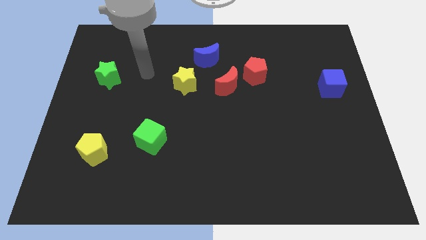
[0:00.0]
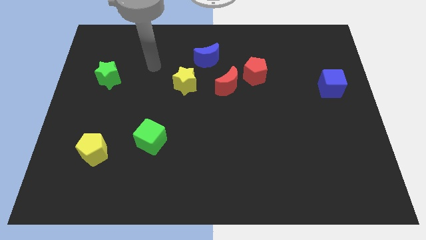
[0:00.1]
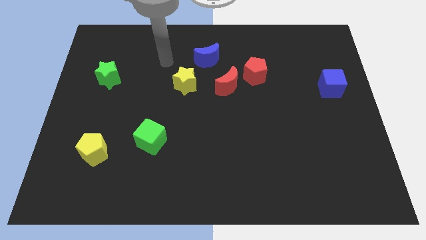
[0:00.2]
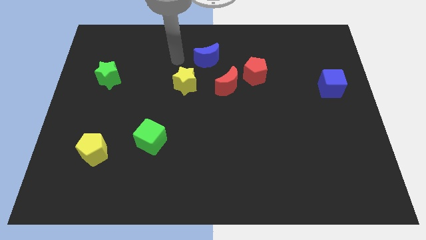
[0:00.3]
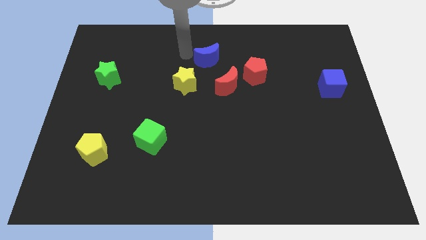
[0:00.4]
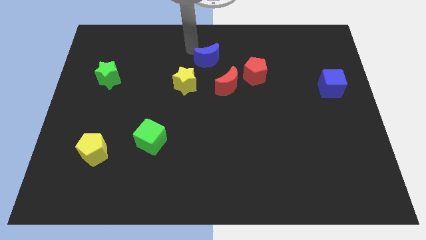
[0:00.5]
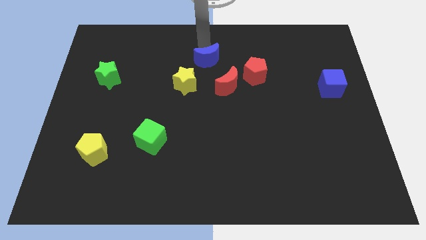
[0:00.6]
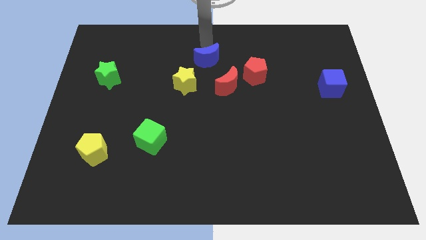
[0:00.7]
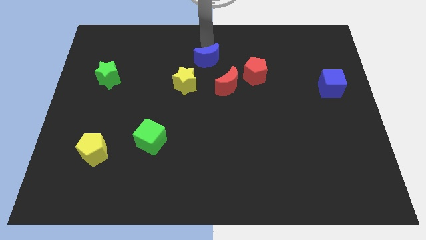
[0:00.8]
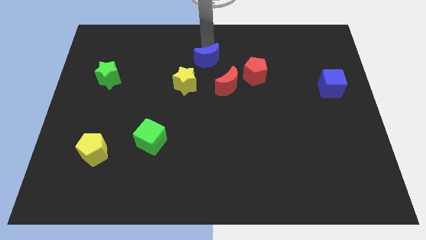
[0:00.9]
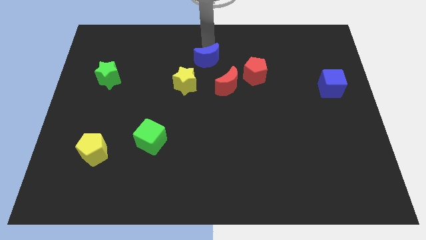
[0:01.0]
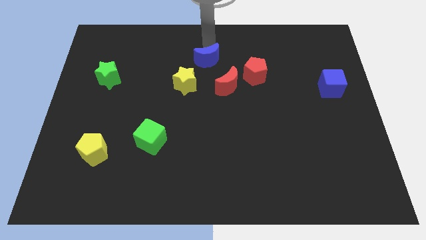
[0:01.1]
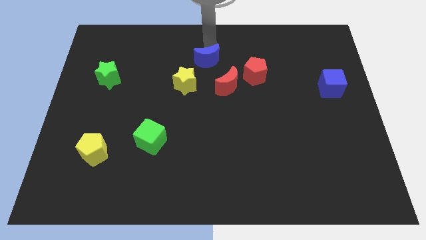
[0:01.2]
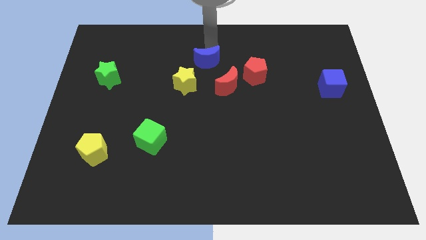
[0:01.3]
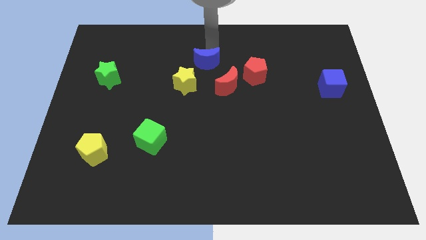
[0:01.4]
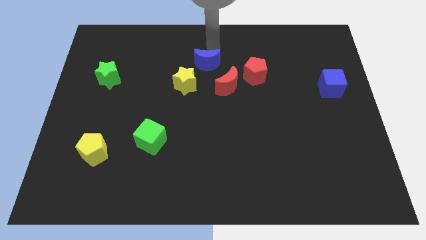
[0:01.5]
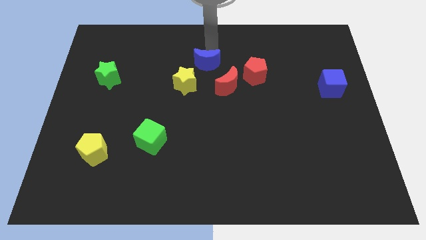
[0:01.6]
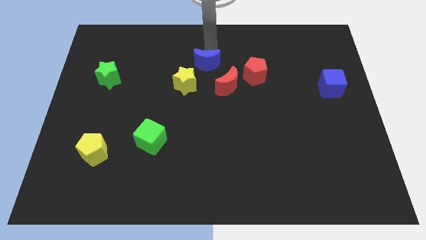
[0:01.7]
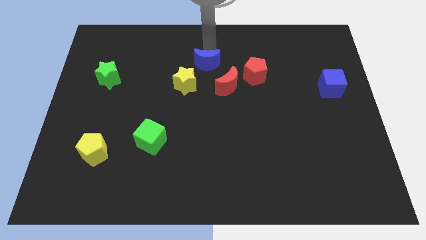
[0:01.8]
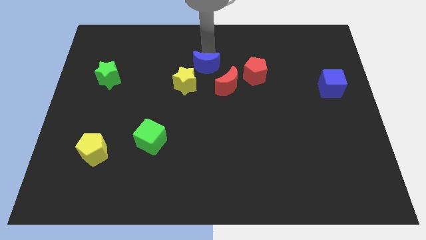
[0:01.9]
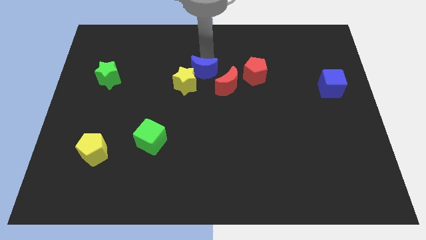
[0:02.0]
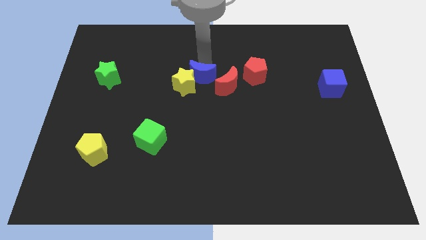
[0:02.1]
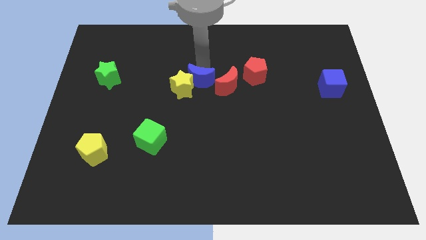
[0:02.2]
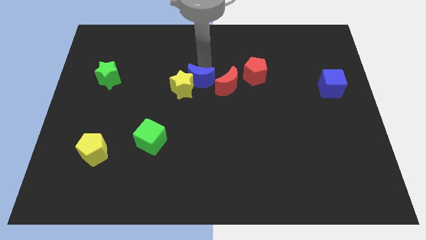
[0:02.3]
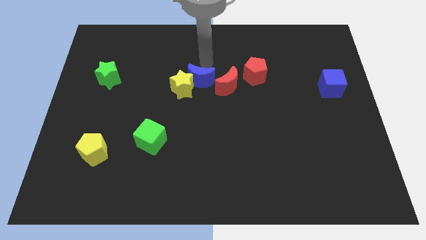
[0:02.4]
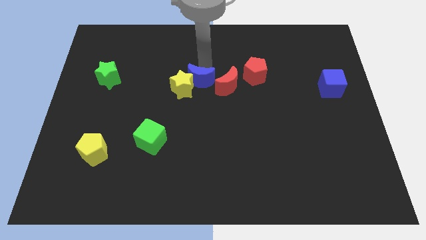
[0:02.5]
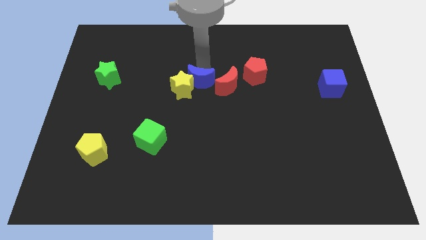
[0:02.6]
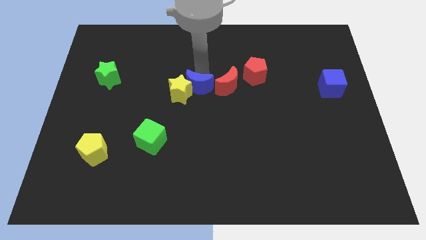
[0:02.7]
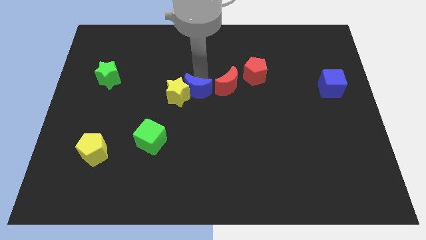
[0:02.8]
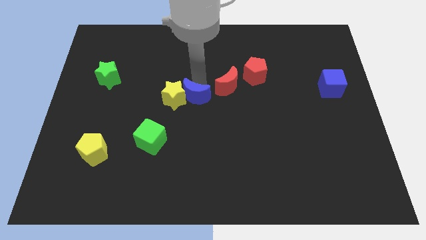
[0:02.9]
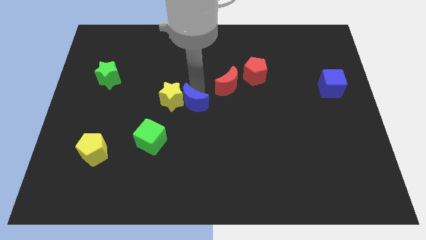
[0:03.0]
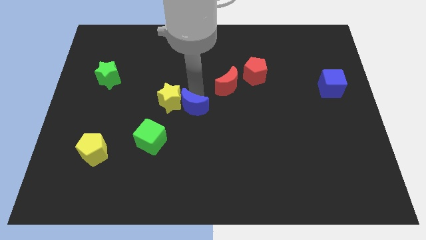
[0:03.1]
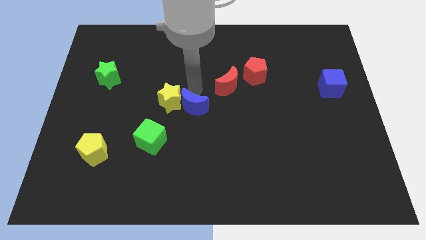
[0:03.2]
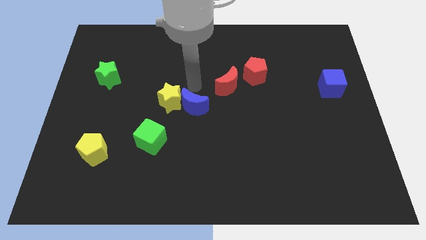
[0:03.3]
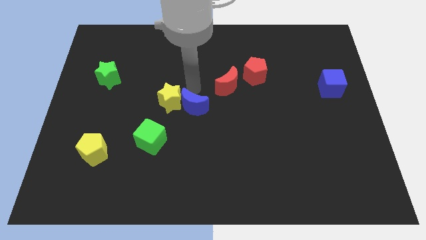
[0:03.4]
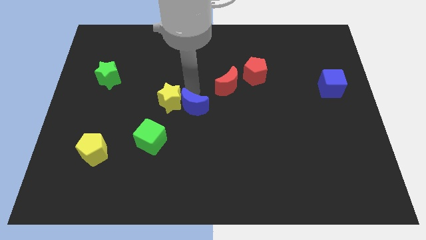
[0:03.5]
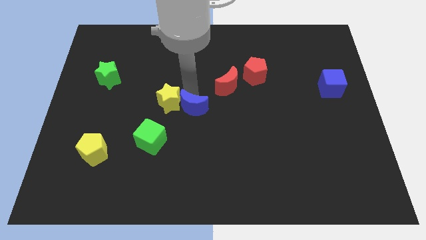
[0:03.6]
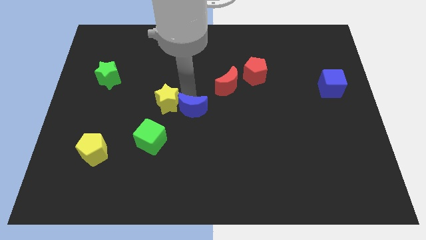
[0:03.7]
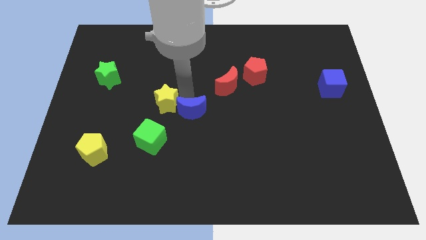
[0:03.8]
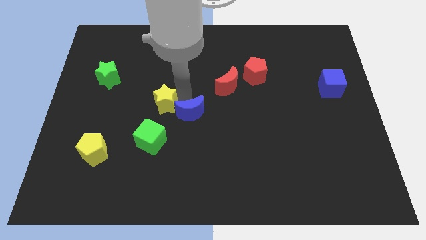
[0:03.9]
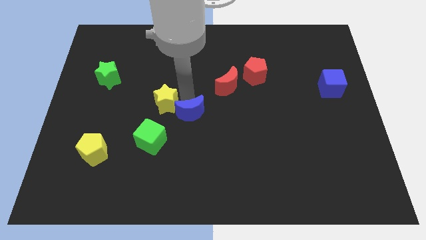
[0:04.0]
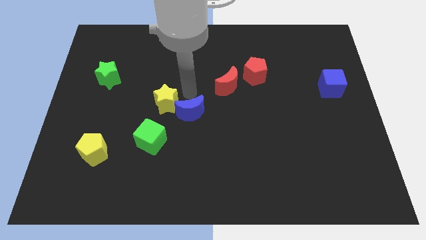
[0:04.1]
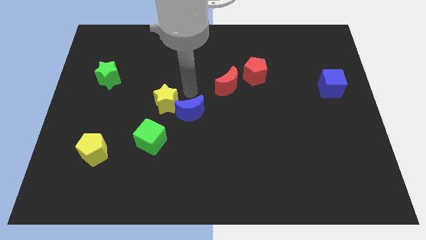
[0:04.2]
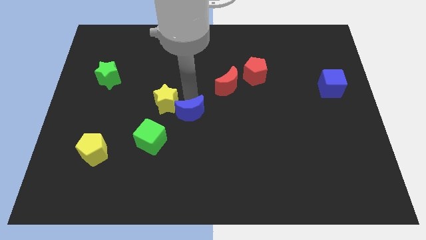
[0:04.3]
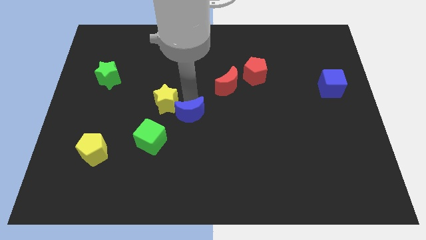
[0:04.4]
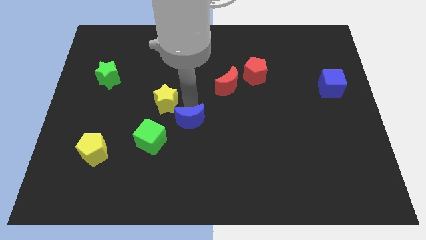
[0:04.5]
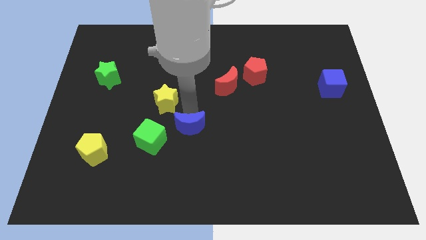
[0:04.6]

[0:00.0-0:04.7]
move the blue moon down

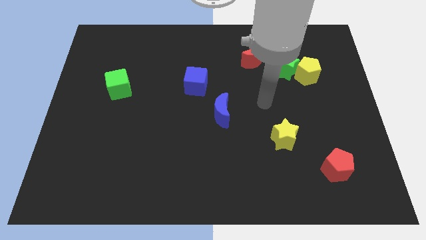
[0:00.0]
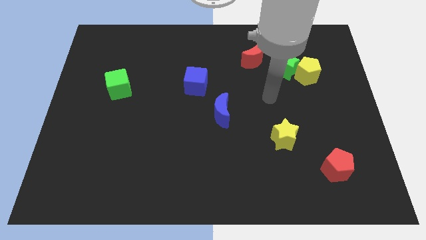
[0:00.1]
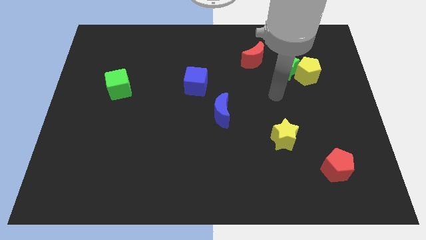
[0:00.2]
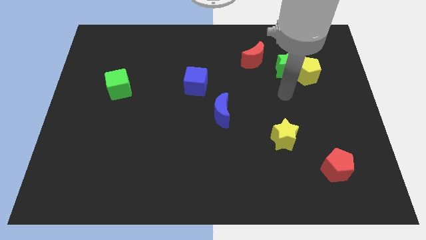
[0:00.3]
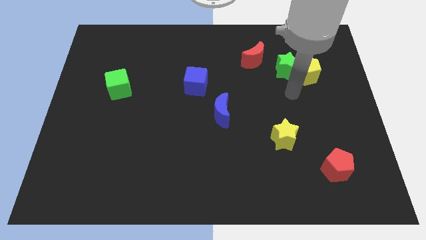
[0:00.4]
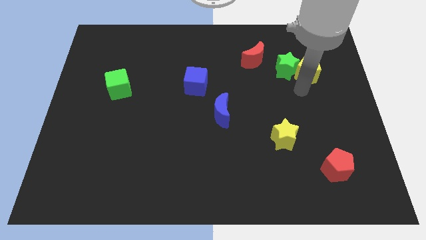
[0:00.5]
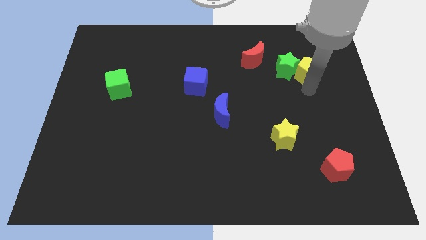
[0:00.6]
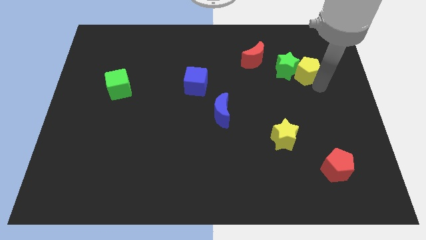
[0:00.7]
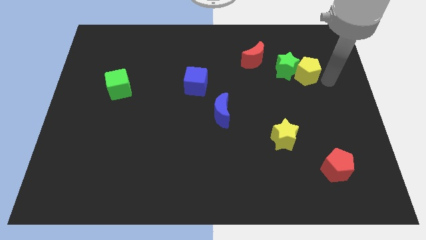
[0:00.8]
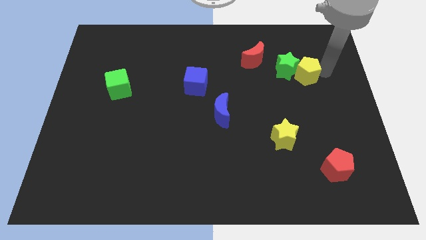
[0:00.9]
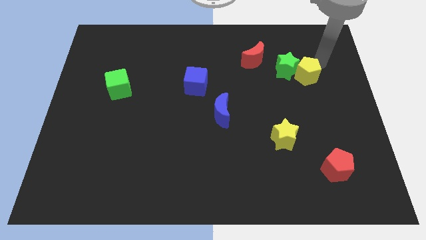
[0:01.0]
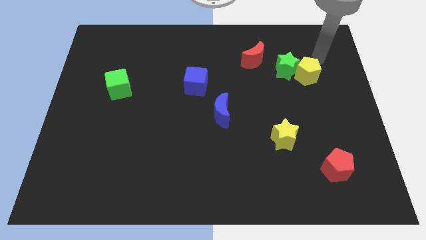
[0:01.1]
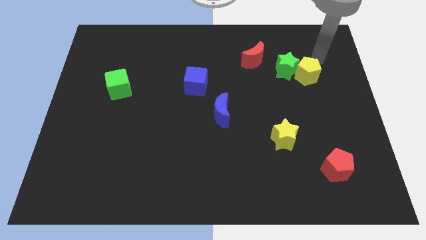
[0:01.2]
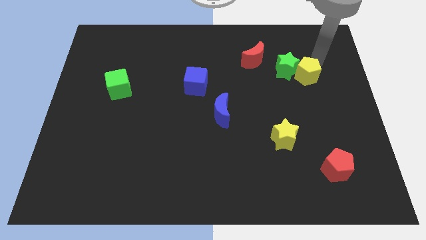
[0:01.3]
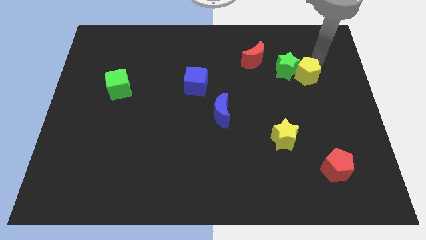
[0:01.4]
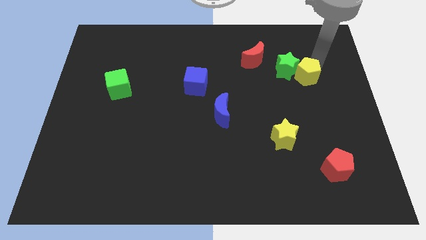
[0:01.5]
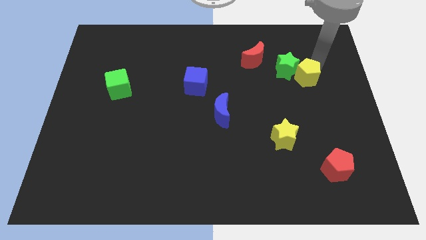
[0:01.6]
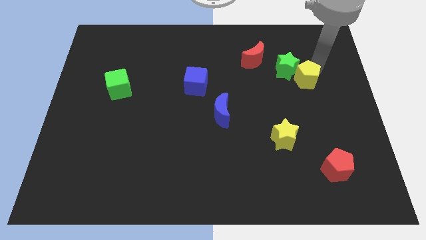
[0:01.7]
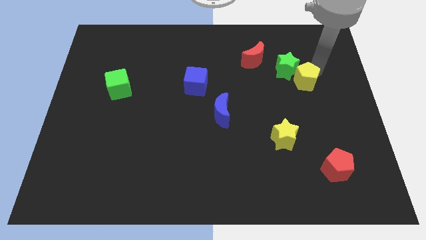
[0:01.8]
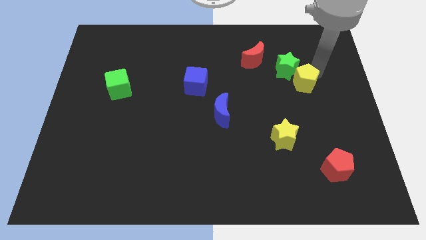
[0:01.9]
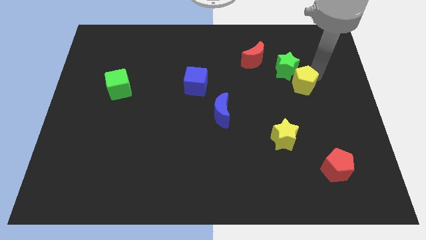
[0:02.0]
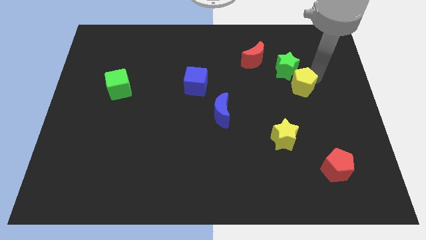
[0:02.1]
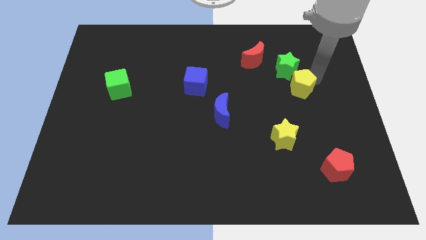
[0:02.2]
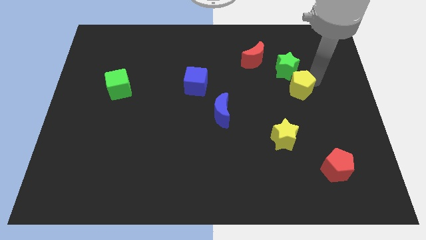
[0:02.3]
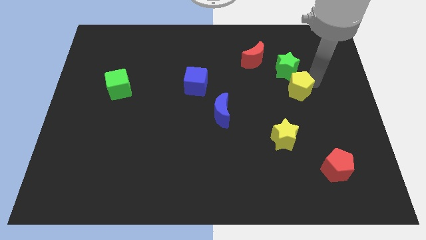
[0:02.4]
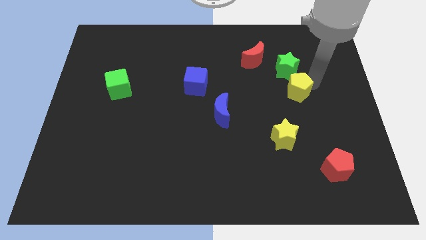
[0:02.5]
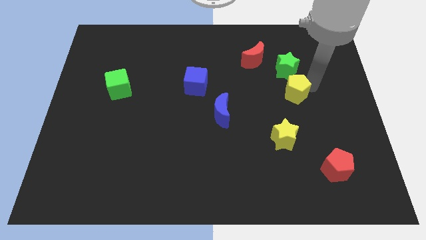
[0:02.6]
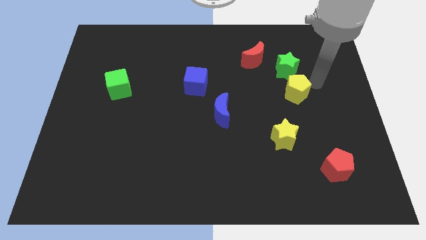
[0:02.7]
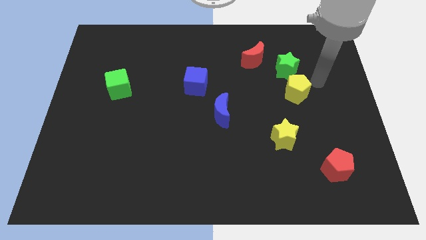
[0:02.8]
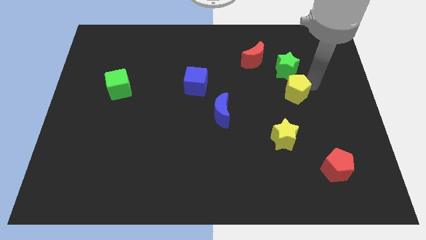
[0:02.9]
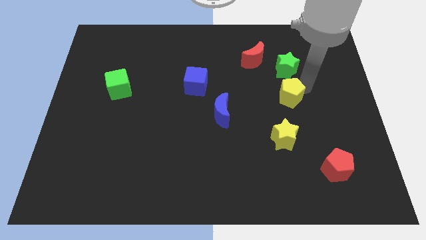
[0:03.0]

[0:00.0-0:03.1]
push the yellow pentagon diagonally downwards and left somewhat

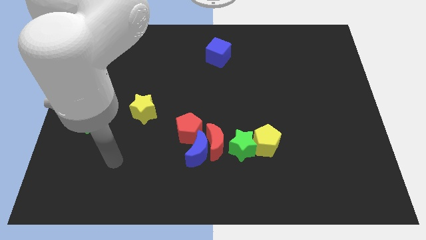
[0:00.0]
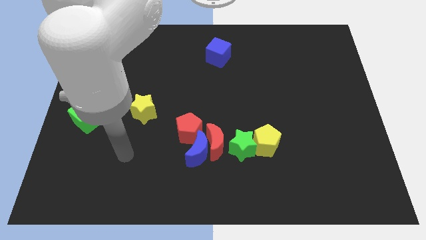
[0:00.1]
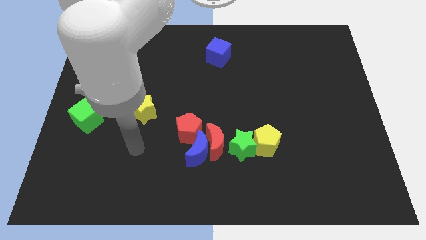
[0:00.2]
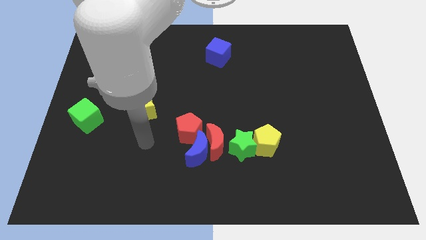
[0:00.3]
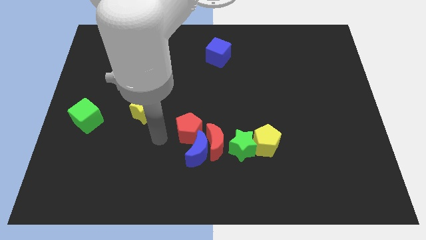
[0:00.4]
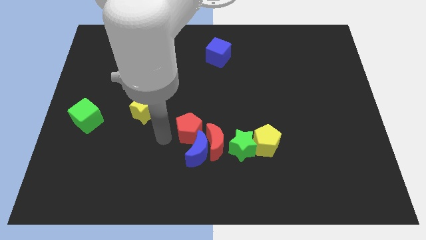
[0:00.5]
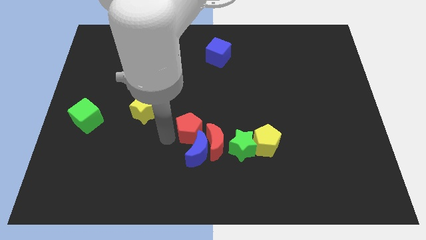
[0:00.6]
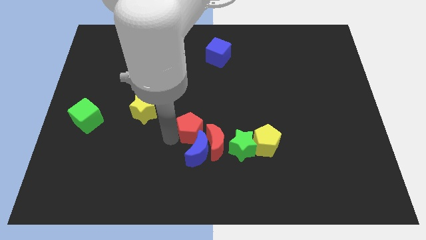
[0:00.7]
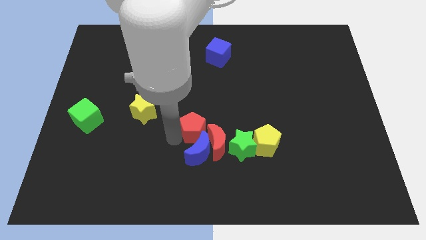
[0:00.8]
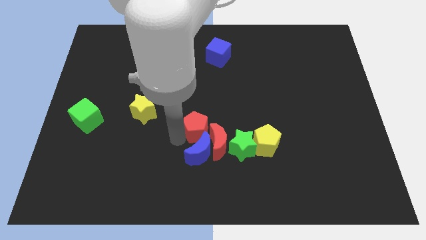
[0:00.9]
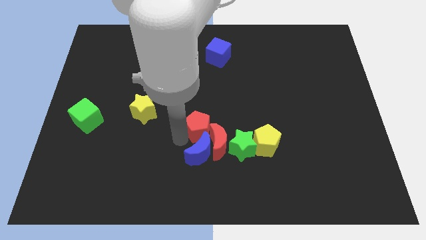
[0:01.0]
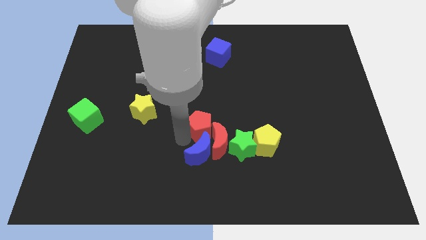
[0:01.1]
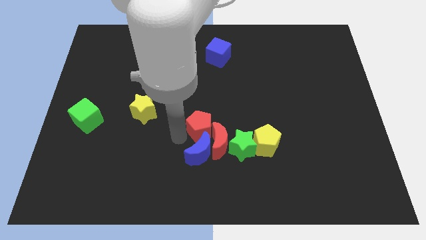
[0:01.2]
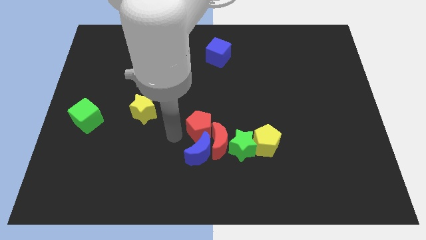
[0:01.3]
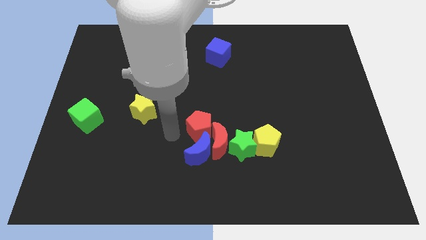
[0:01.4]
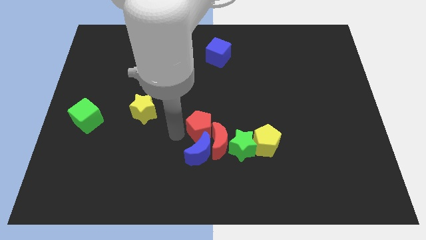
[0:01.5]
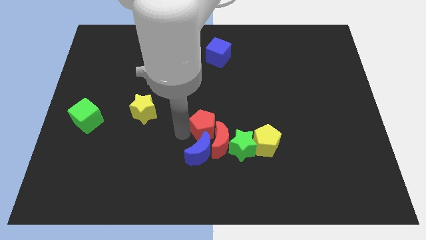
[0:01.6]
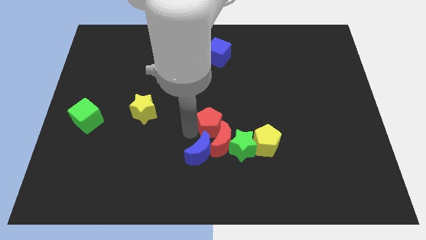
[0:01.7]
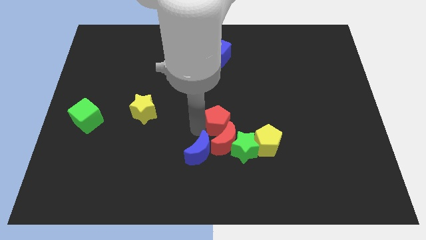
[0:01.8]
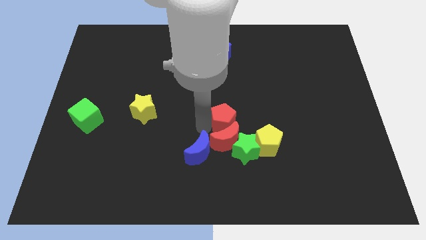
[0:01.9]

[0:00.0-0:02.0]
move the red pentagon a little to the right
